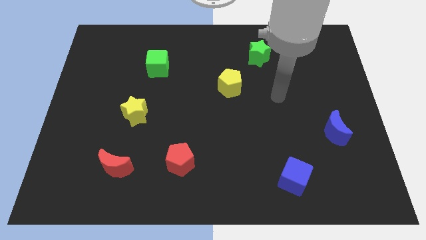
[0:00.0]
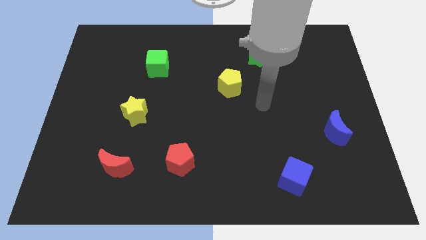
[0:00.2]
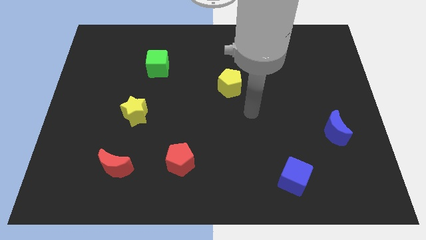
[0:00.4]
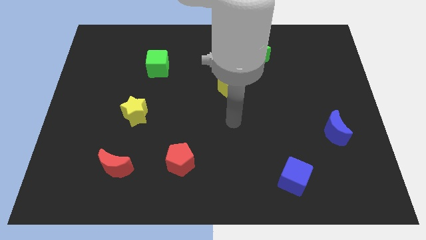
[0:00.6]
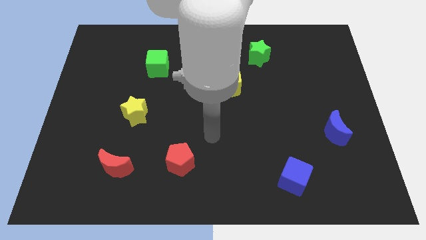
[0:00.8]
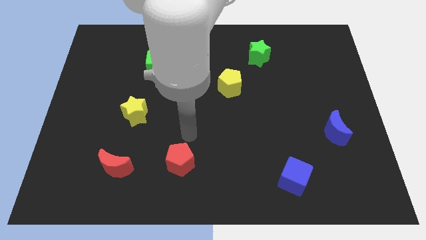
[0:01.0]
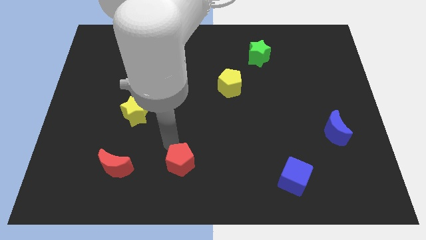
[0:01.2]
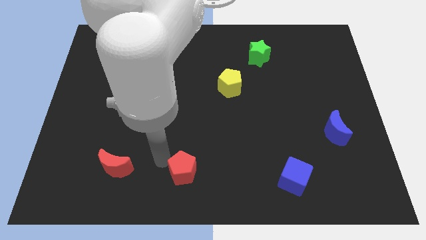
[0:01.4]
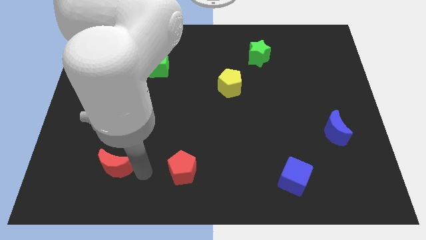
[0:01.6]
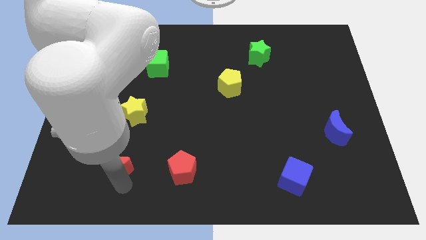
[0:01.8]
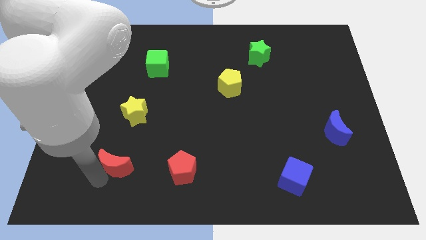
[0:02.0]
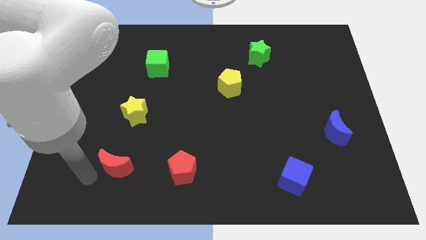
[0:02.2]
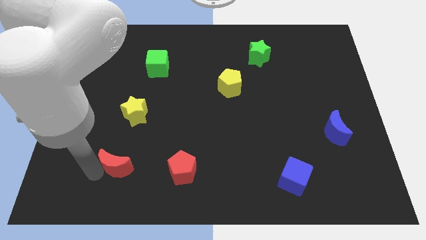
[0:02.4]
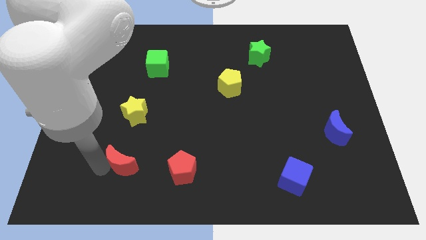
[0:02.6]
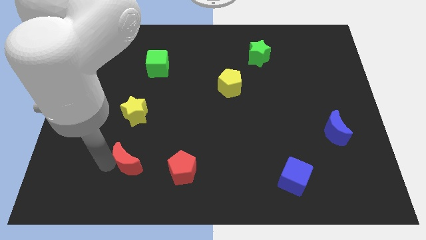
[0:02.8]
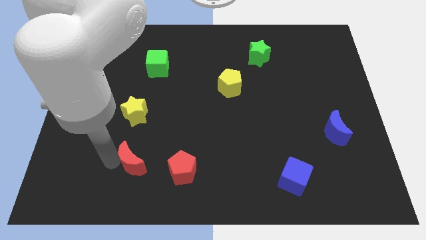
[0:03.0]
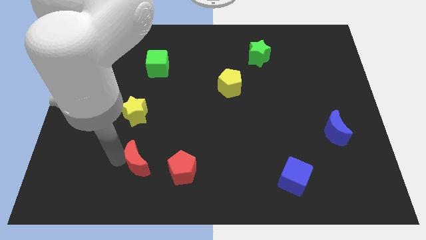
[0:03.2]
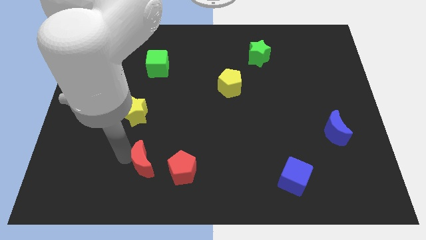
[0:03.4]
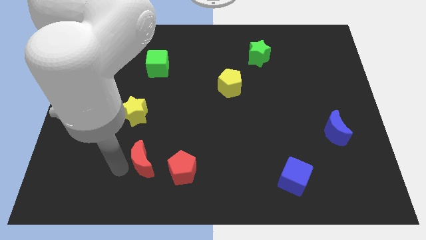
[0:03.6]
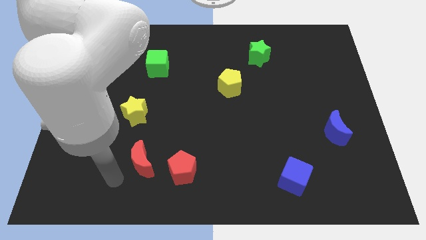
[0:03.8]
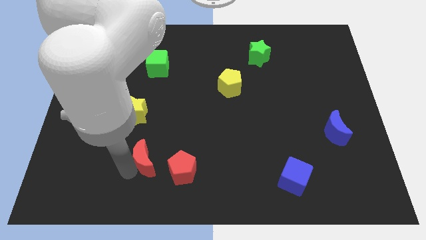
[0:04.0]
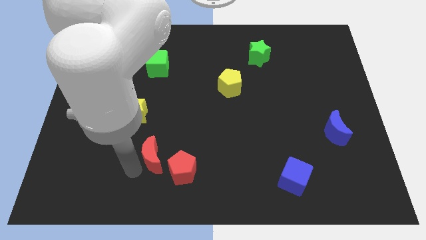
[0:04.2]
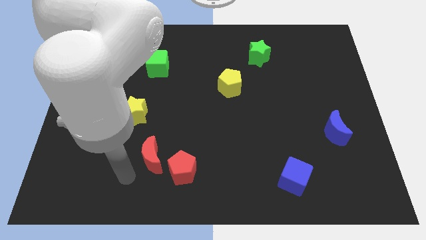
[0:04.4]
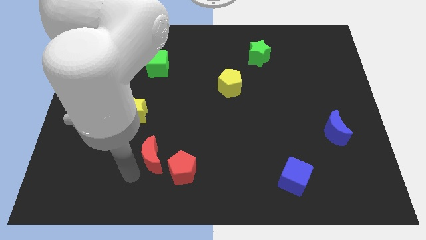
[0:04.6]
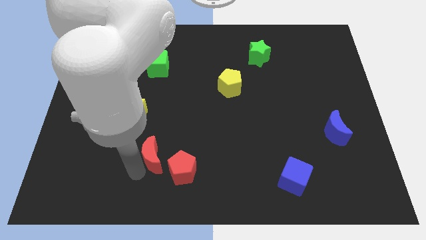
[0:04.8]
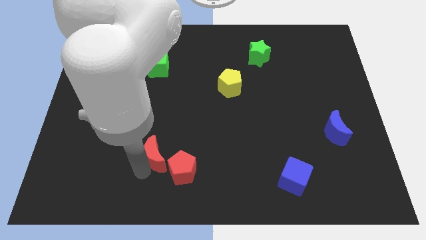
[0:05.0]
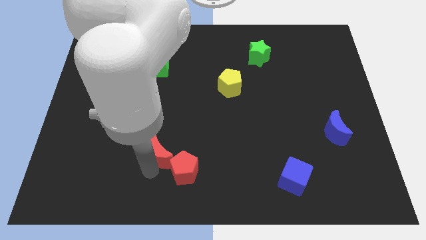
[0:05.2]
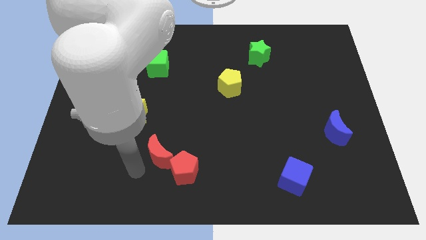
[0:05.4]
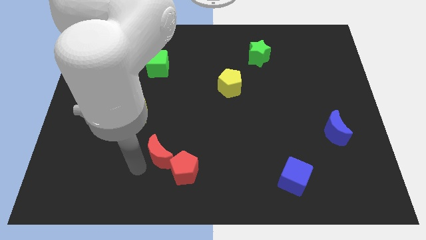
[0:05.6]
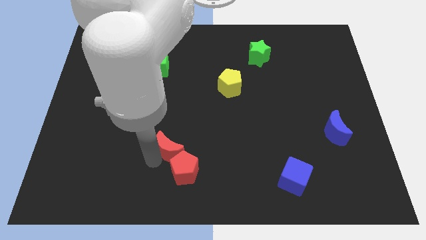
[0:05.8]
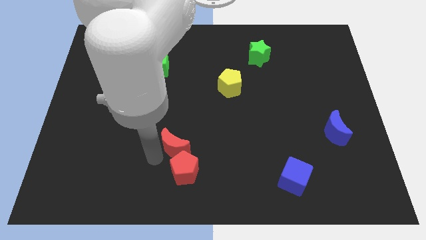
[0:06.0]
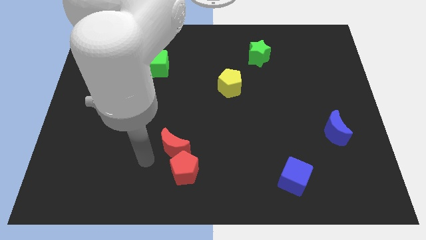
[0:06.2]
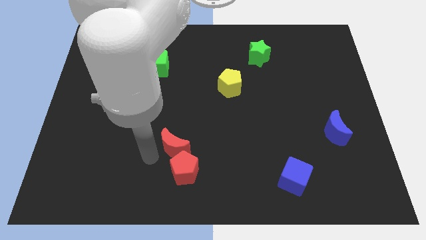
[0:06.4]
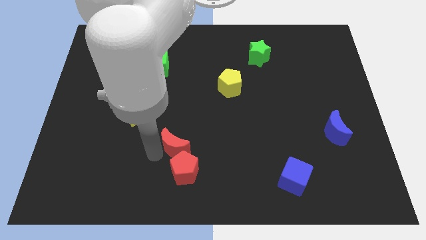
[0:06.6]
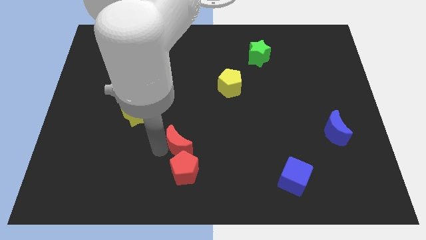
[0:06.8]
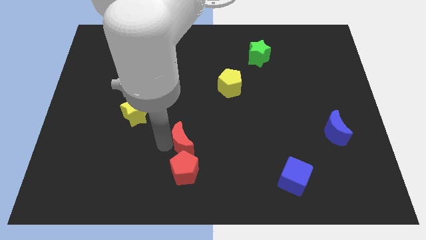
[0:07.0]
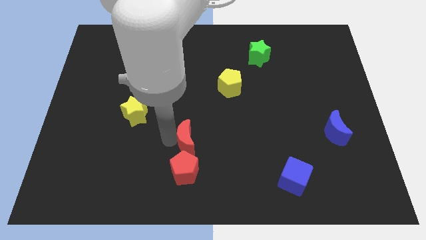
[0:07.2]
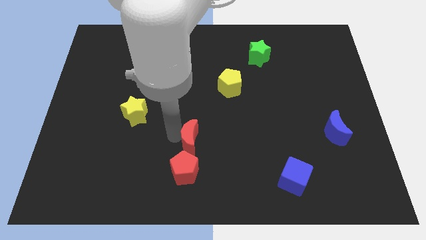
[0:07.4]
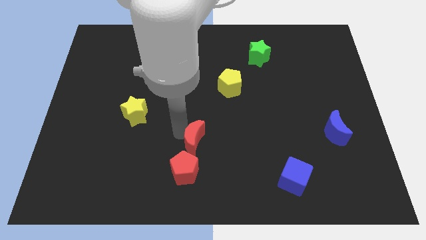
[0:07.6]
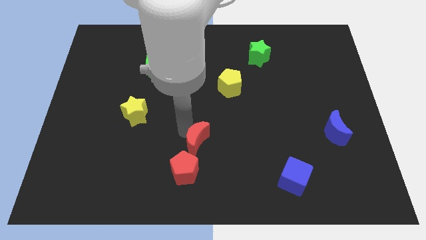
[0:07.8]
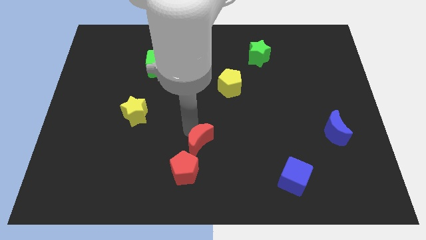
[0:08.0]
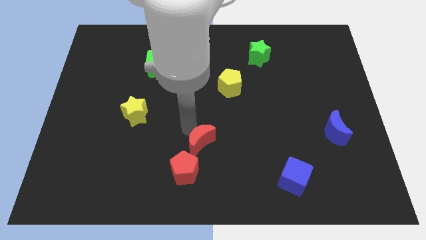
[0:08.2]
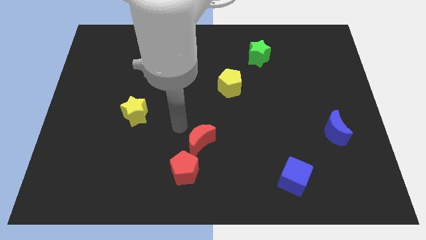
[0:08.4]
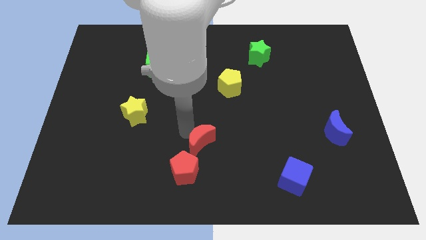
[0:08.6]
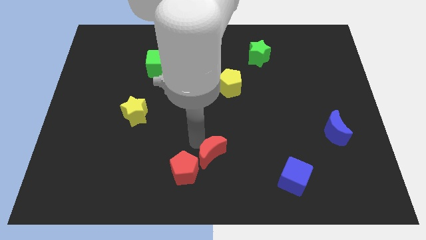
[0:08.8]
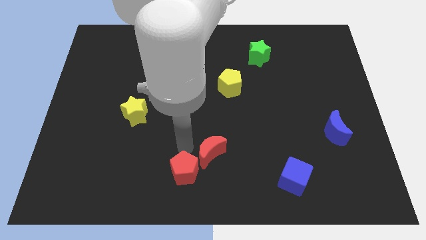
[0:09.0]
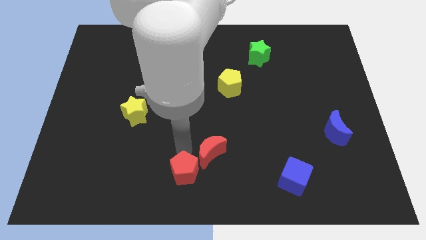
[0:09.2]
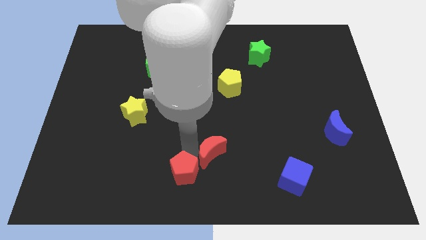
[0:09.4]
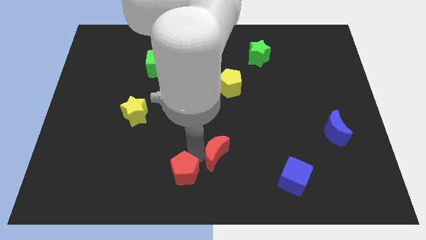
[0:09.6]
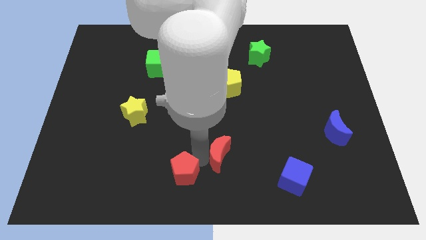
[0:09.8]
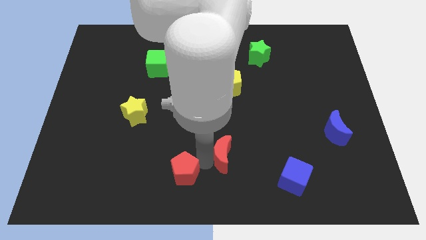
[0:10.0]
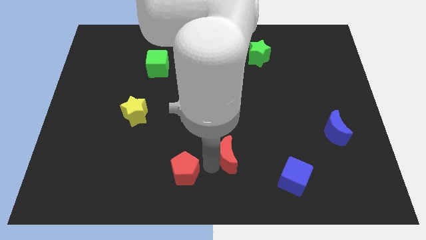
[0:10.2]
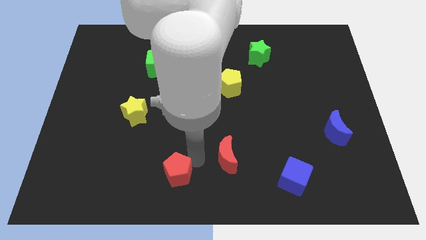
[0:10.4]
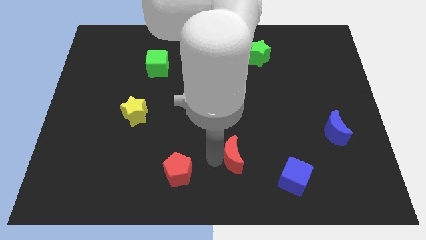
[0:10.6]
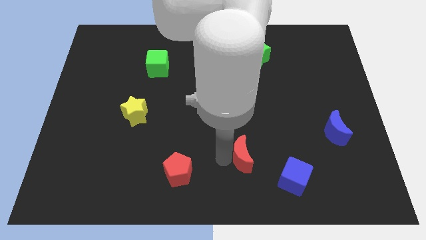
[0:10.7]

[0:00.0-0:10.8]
move the red moon diagonally up and to the left of the blue cube

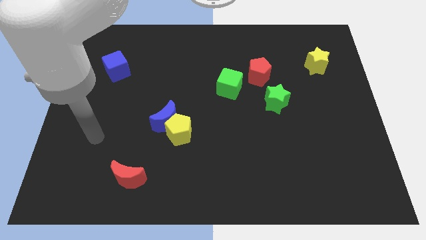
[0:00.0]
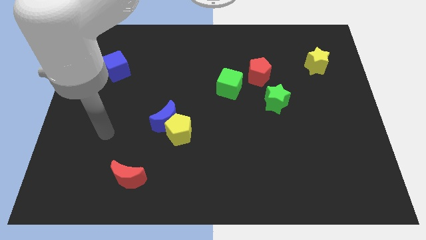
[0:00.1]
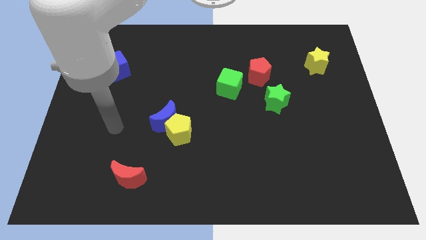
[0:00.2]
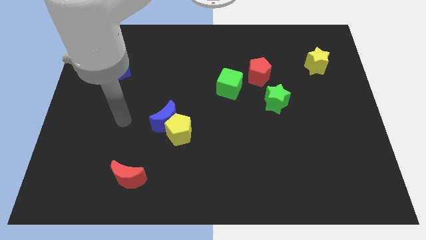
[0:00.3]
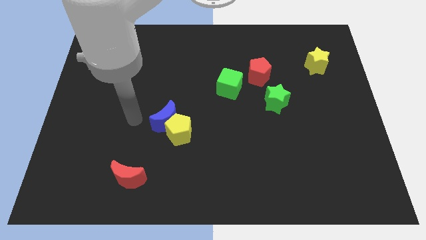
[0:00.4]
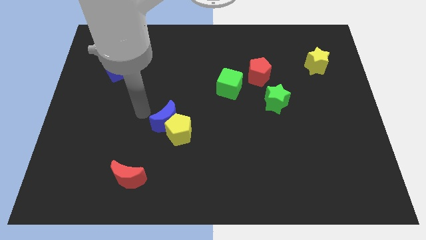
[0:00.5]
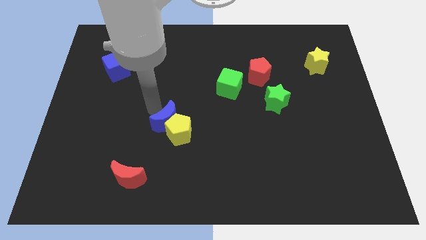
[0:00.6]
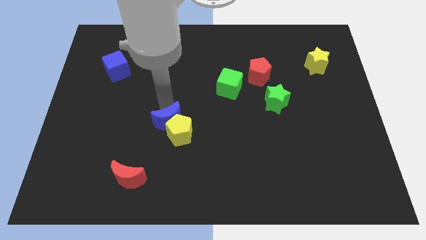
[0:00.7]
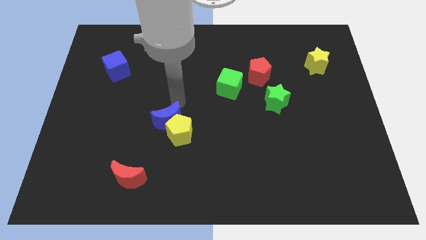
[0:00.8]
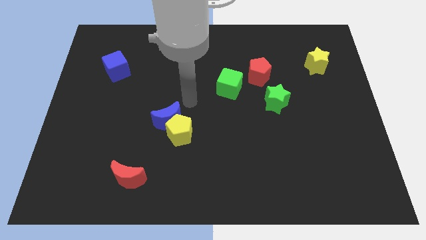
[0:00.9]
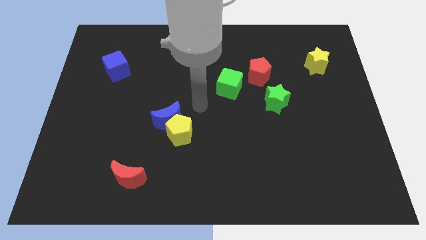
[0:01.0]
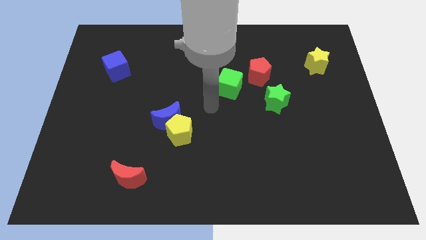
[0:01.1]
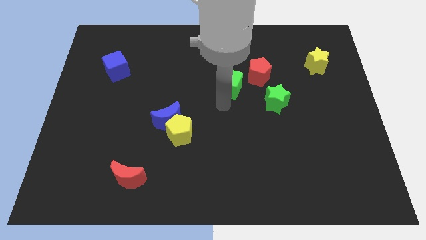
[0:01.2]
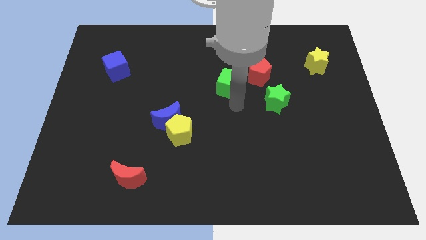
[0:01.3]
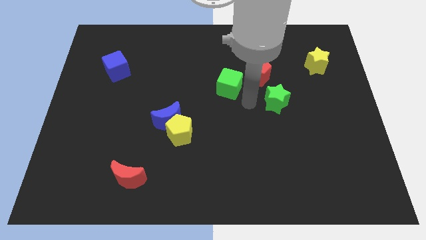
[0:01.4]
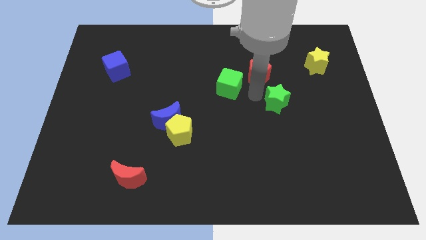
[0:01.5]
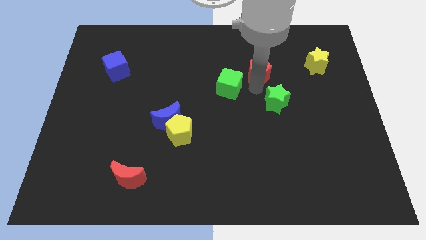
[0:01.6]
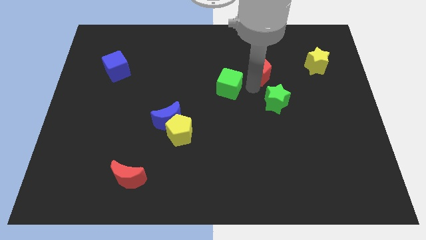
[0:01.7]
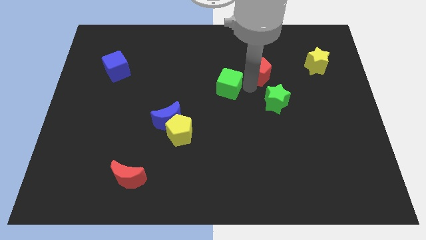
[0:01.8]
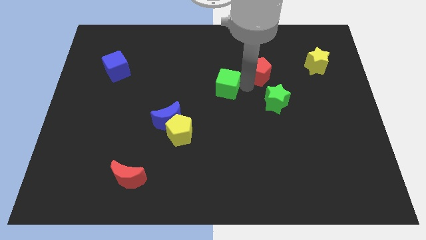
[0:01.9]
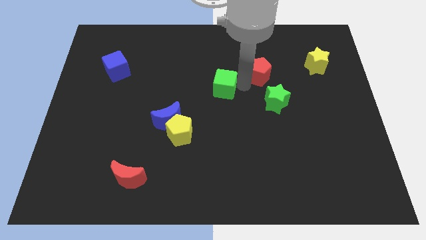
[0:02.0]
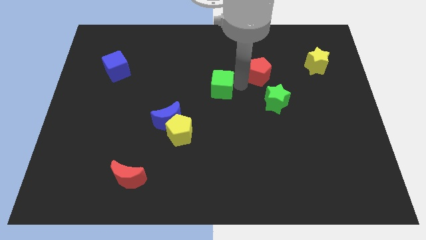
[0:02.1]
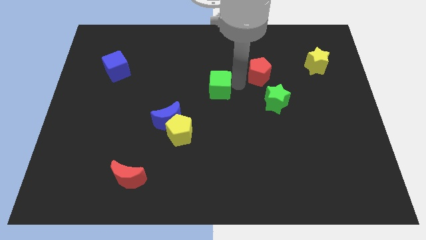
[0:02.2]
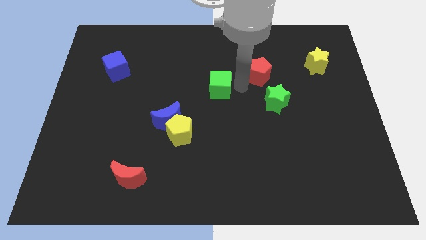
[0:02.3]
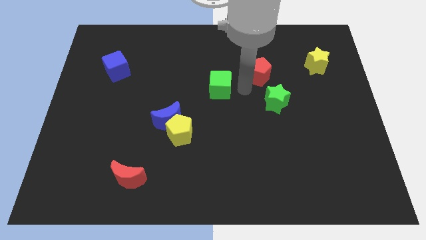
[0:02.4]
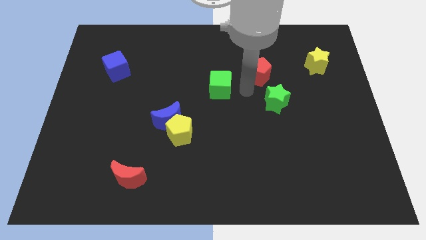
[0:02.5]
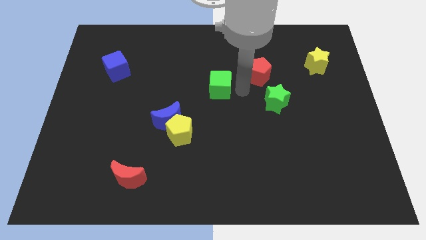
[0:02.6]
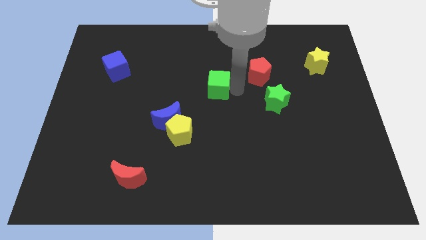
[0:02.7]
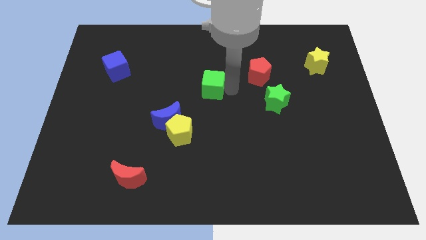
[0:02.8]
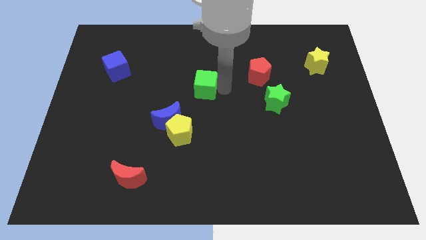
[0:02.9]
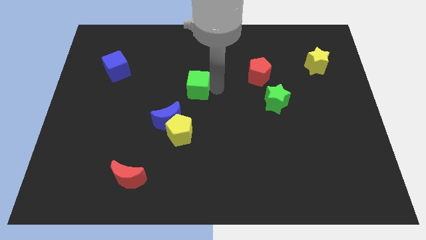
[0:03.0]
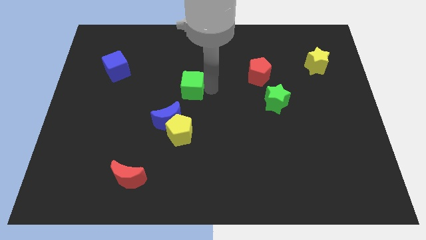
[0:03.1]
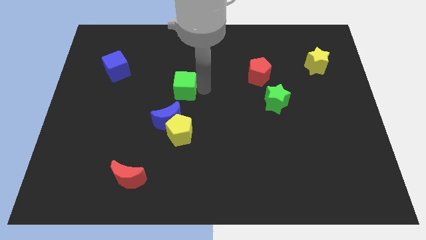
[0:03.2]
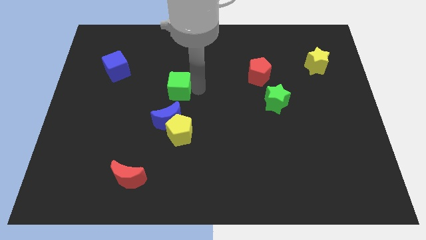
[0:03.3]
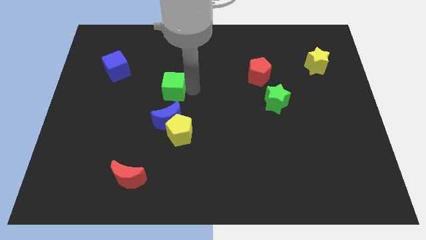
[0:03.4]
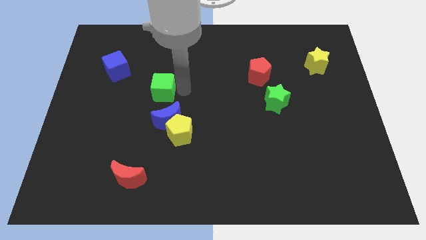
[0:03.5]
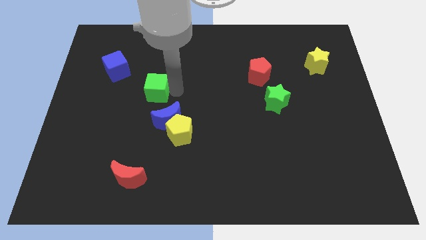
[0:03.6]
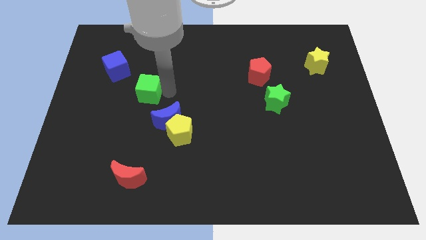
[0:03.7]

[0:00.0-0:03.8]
put the green cube diagonally down and to the right of the blue cube
